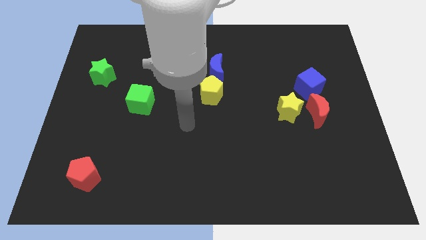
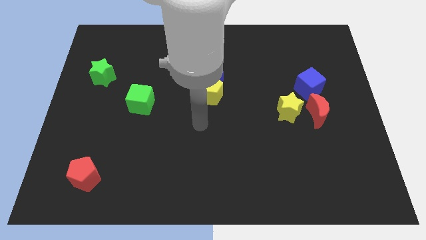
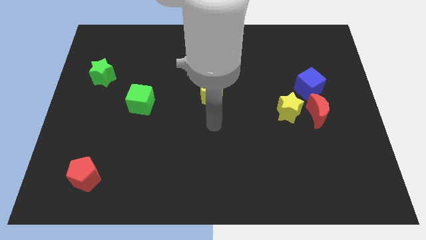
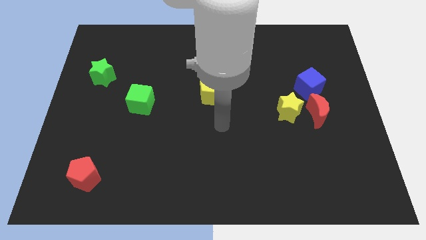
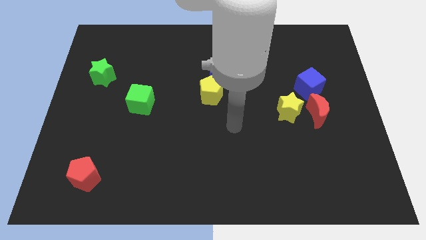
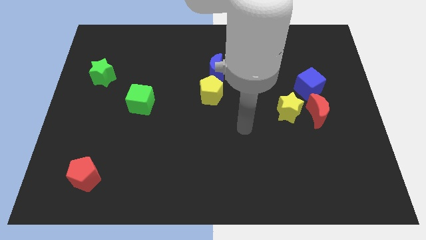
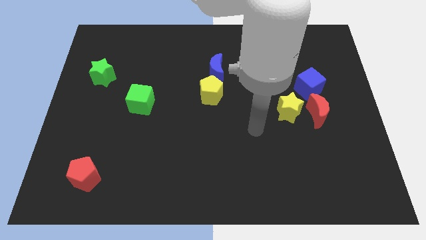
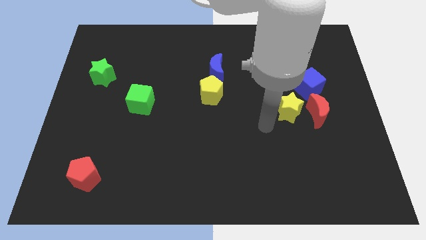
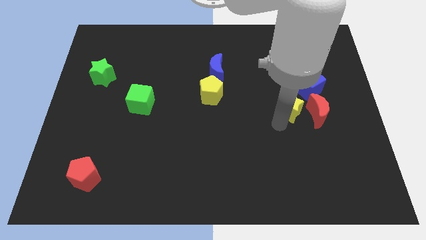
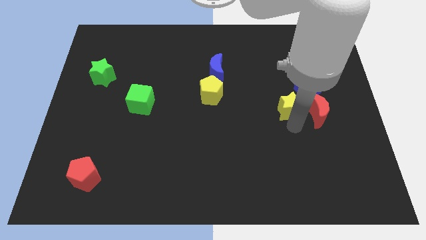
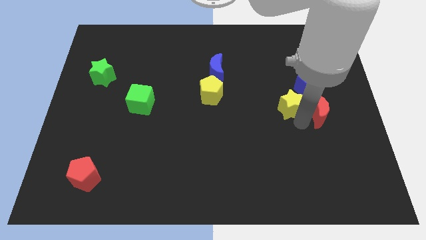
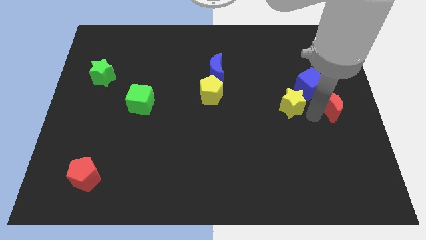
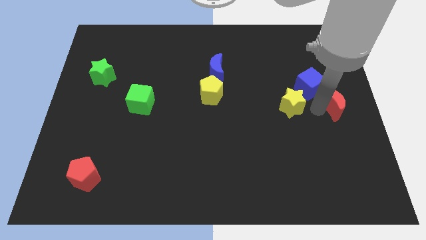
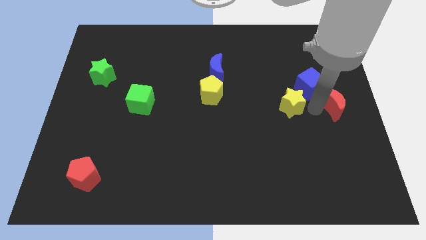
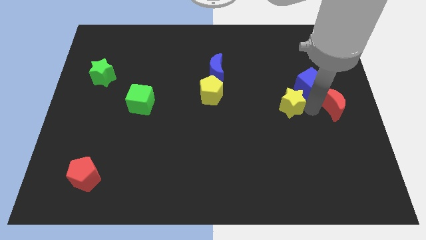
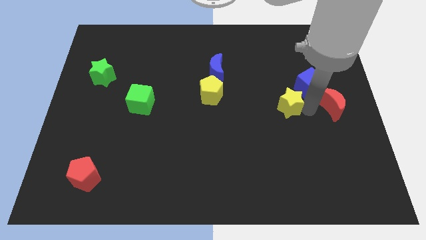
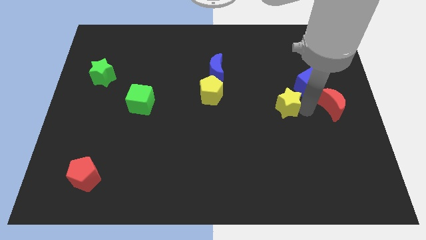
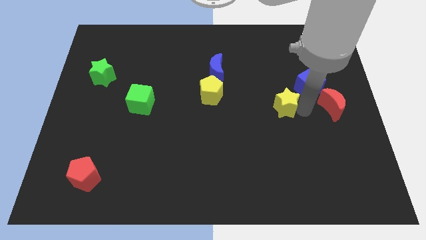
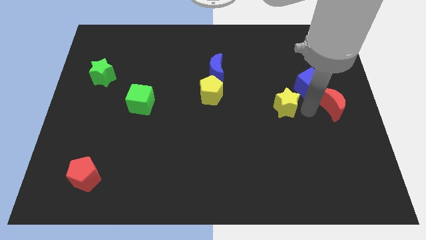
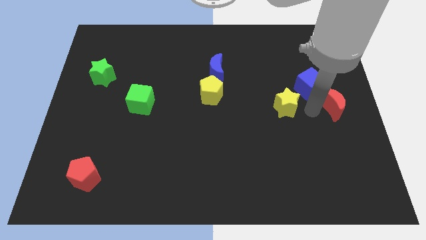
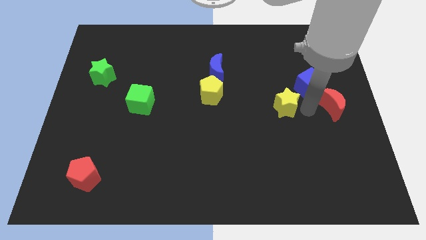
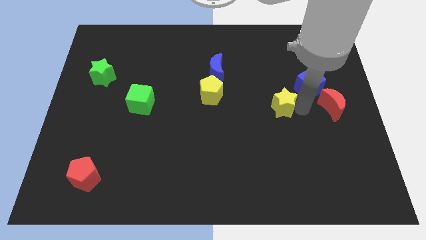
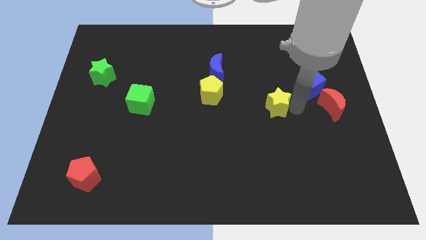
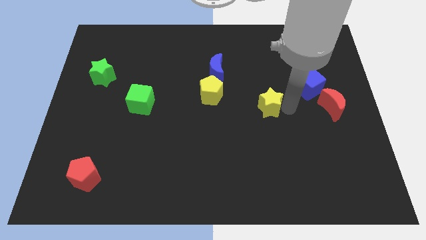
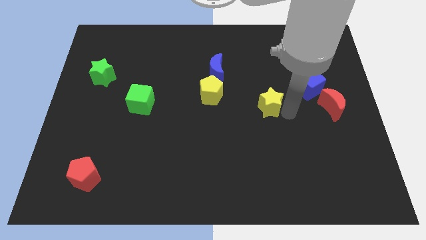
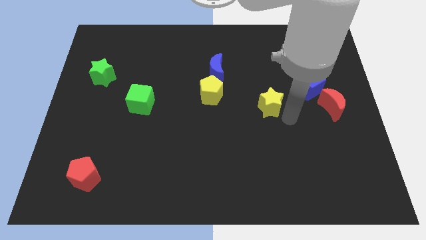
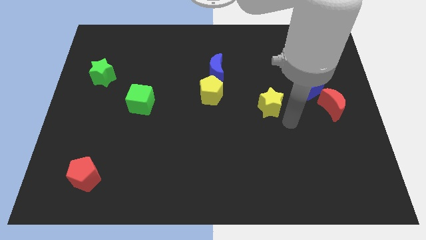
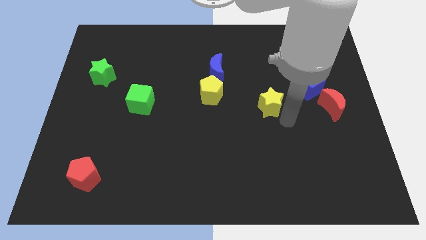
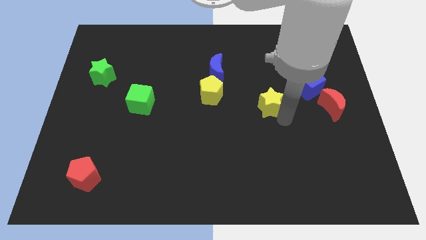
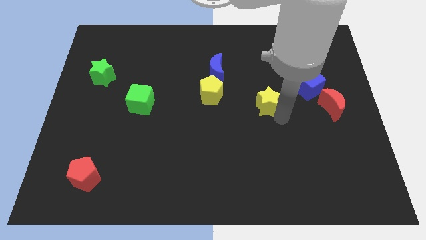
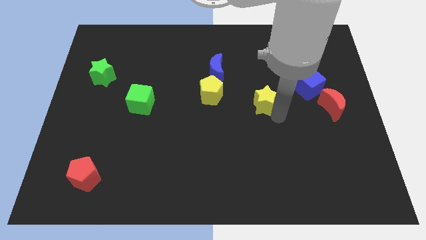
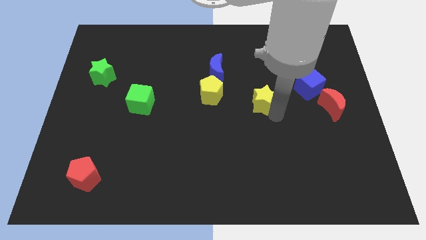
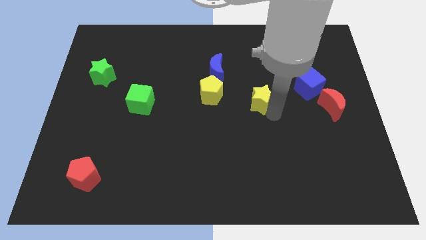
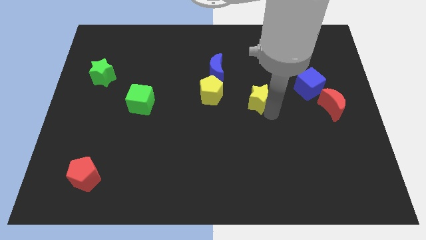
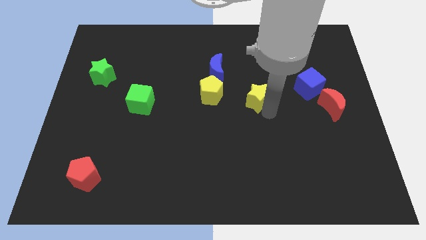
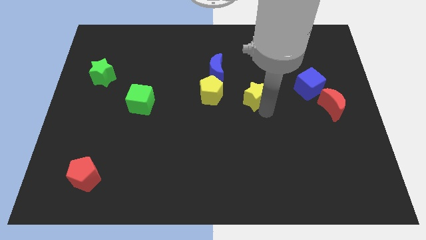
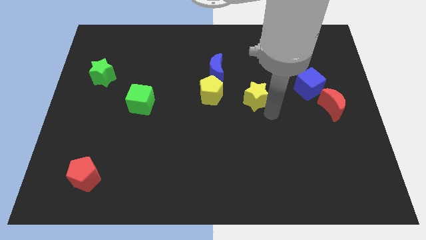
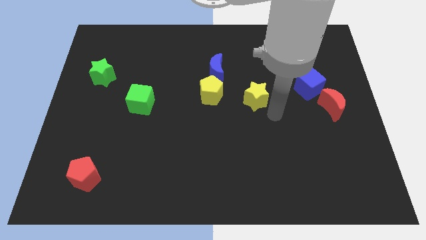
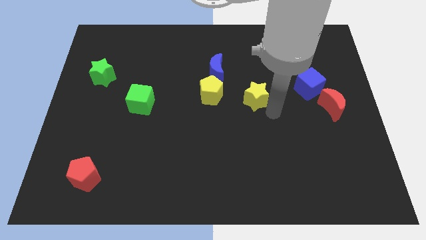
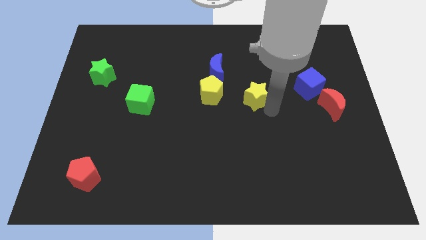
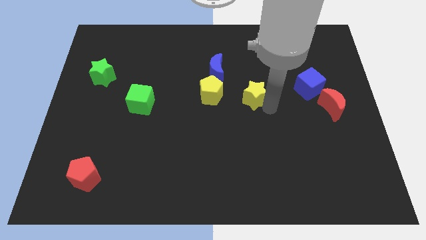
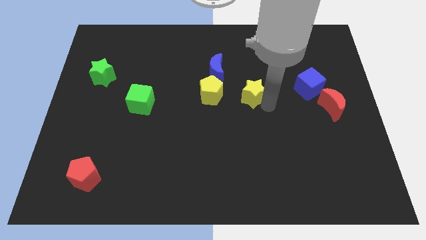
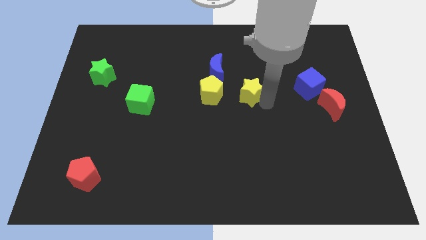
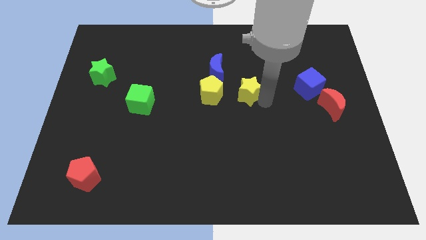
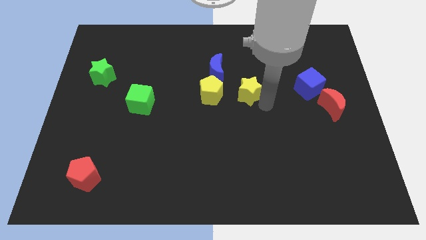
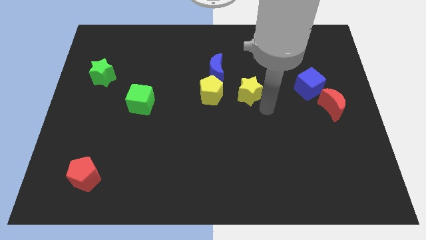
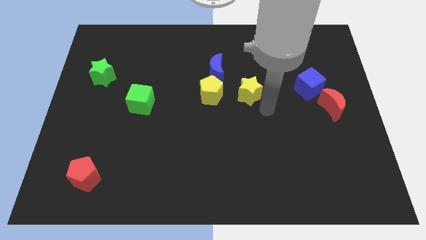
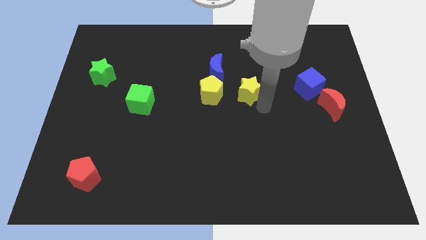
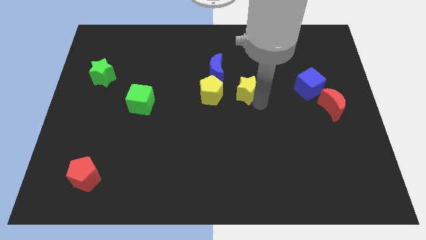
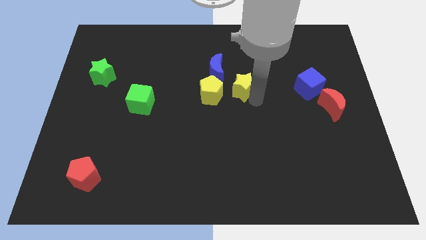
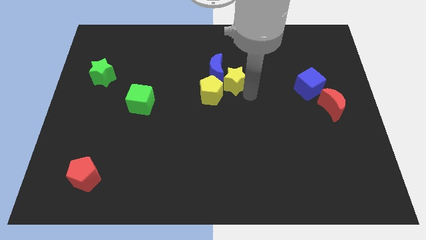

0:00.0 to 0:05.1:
push the yellow star towards the blue moon

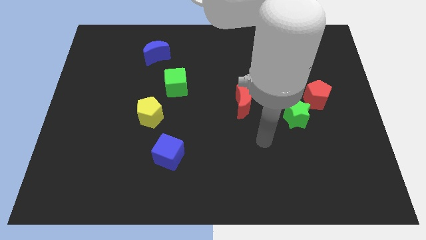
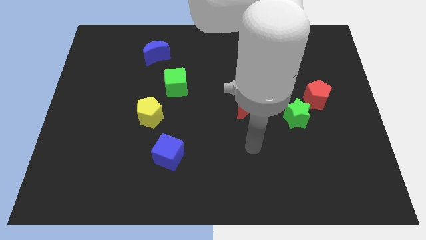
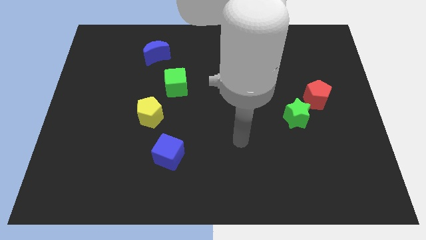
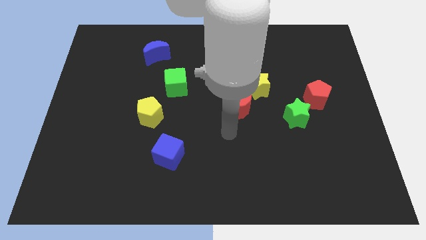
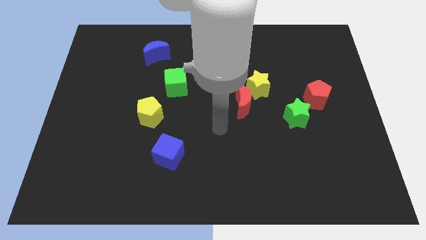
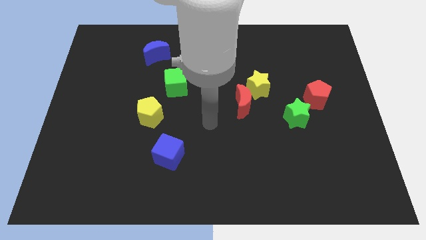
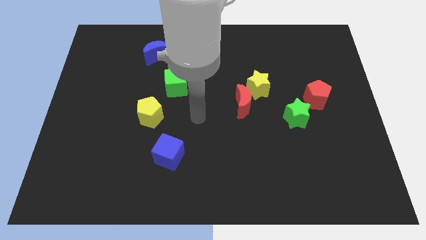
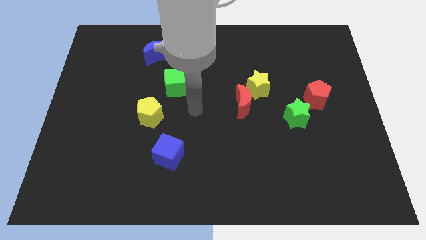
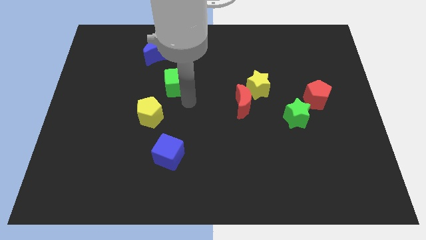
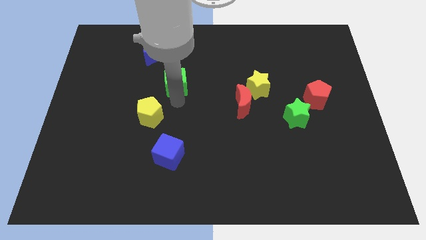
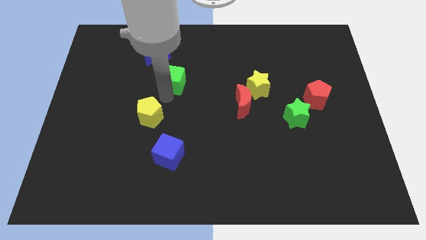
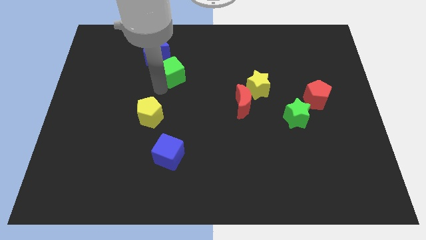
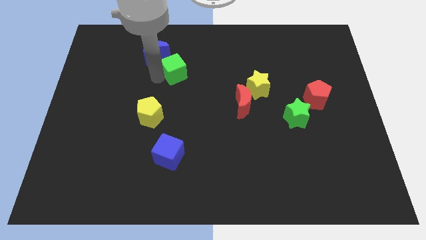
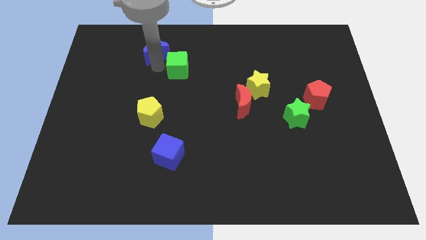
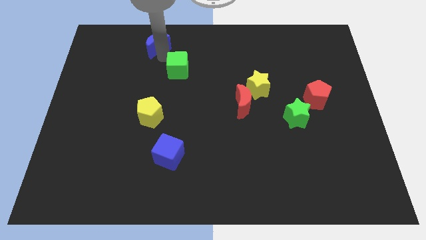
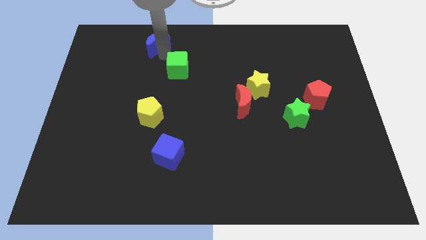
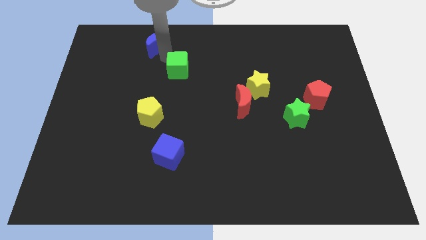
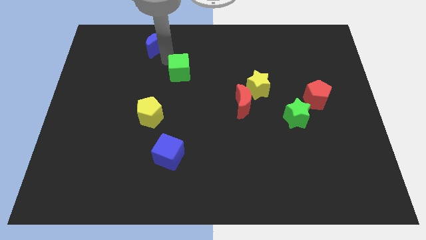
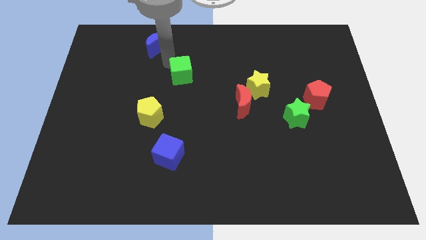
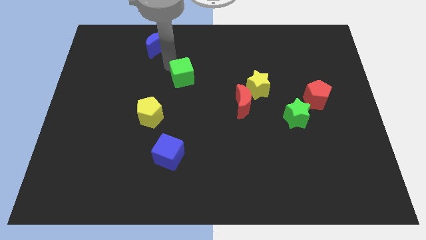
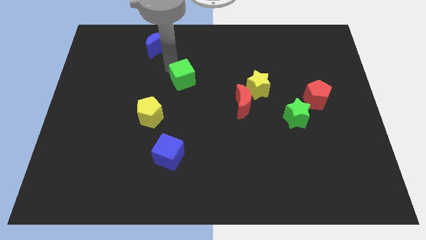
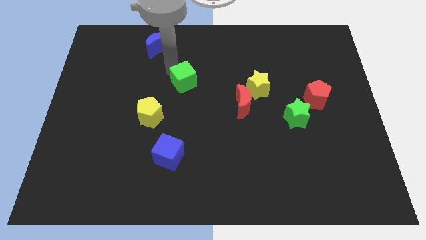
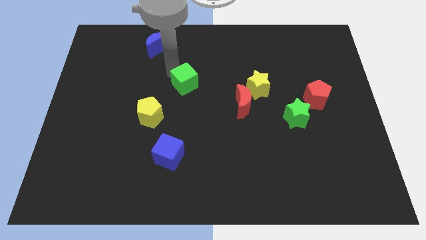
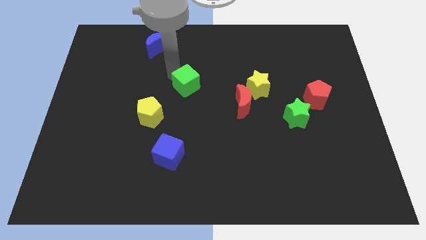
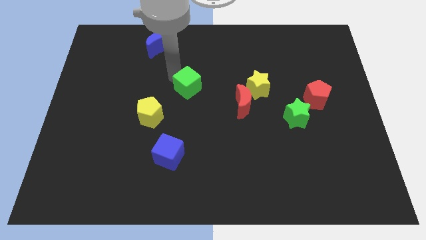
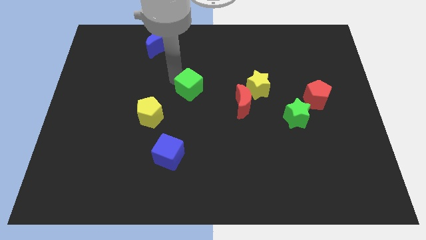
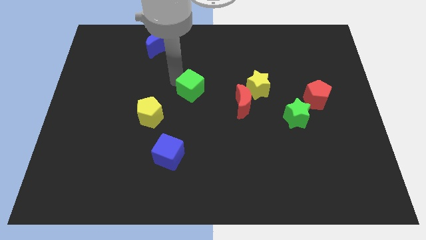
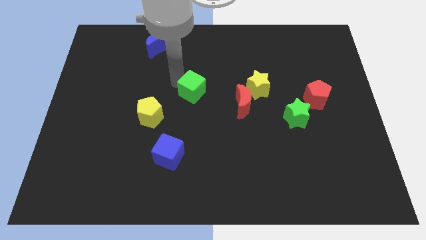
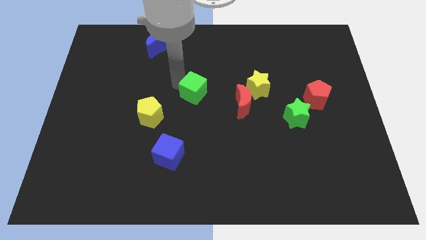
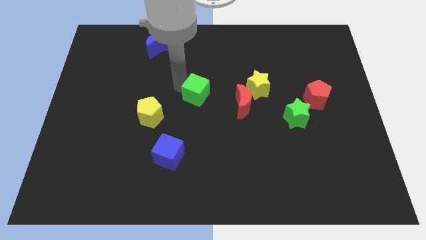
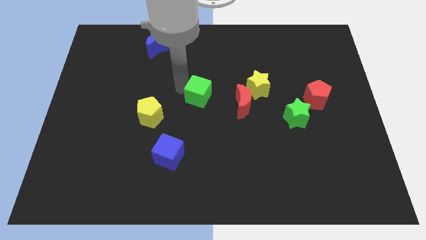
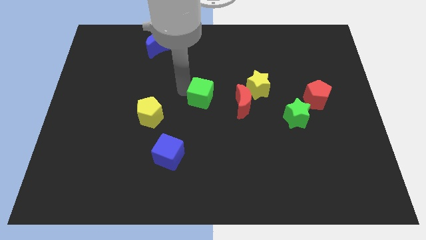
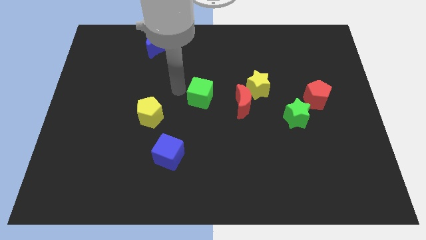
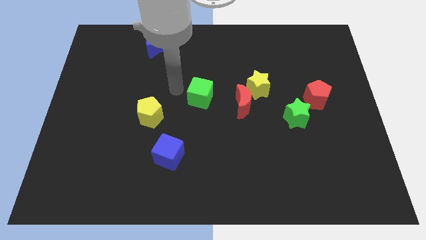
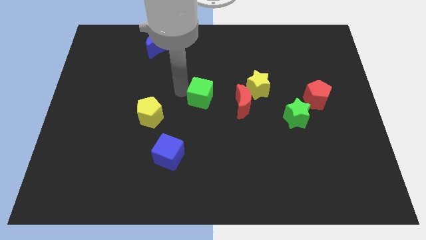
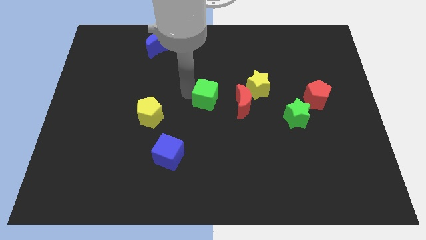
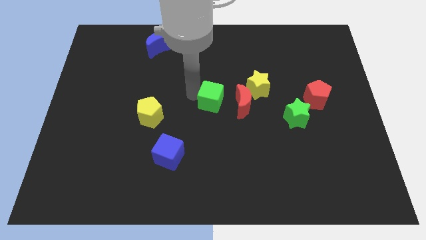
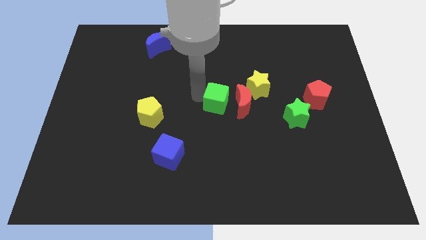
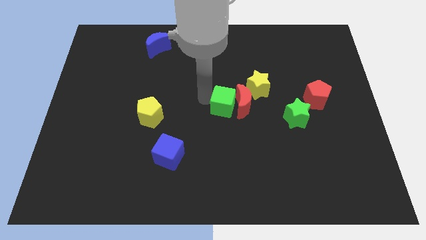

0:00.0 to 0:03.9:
move the green cube to the red moon
